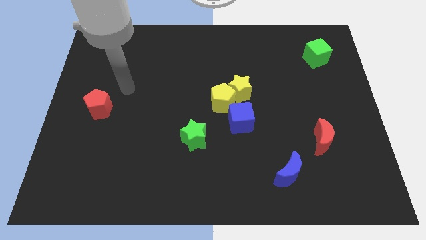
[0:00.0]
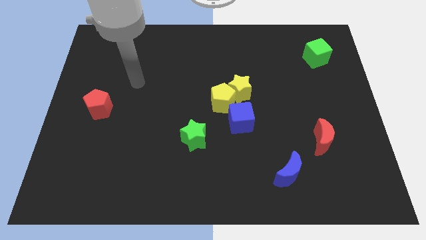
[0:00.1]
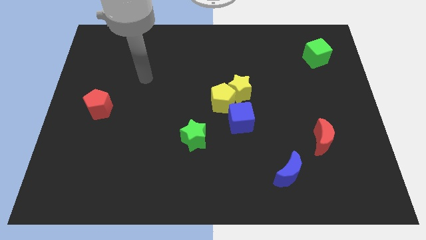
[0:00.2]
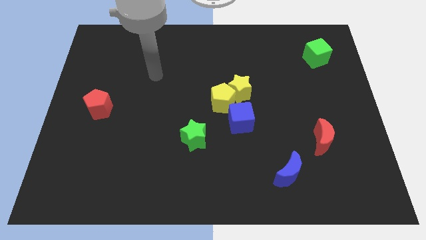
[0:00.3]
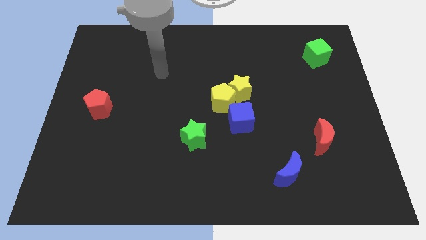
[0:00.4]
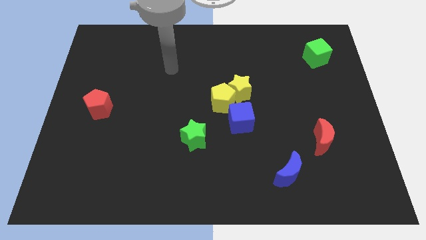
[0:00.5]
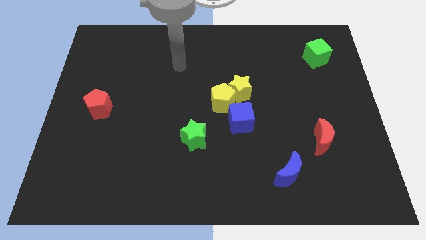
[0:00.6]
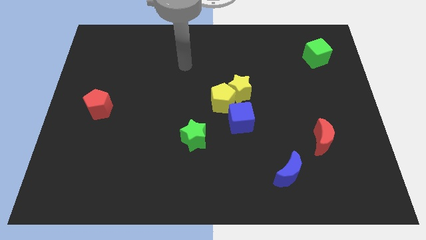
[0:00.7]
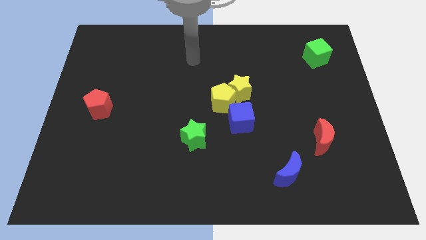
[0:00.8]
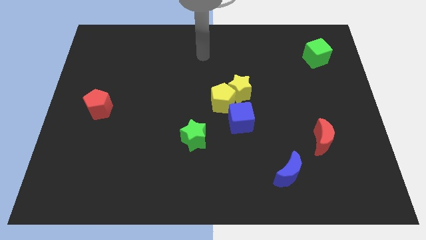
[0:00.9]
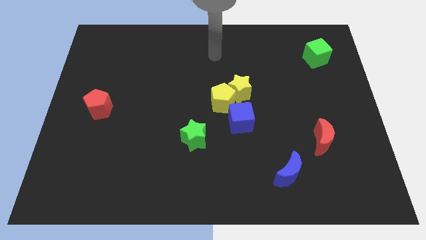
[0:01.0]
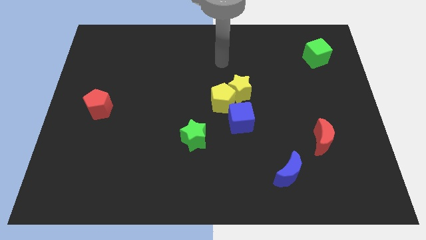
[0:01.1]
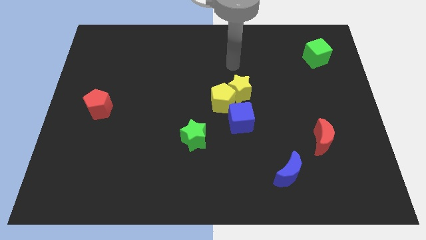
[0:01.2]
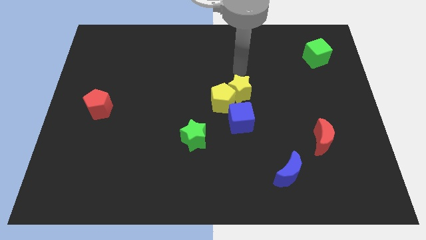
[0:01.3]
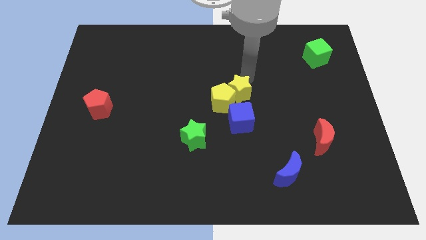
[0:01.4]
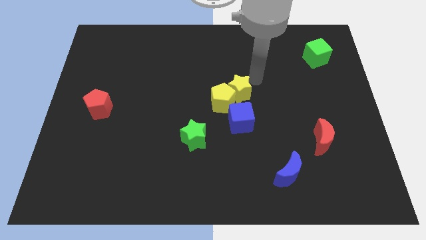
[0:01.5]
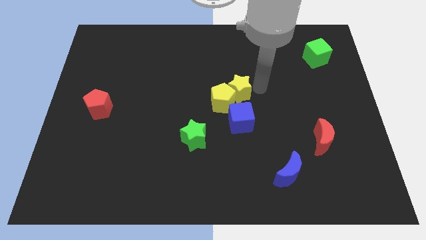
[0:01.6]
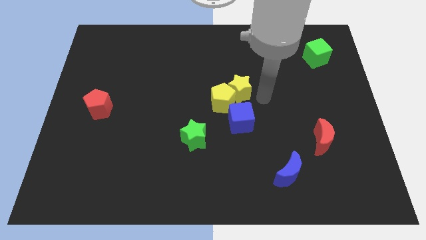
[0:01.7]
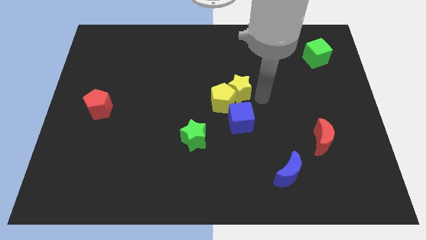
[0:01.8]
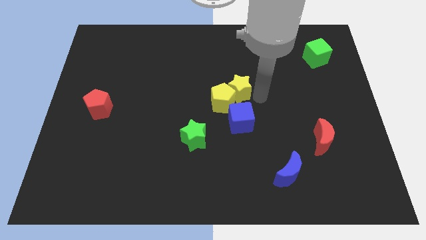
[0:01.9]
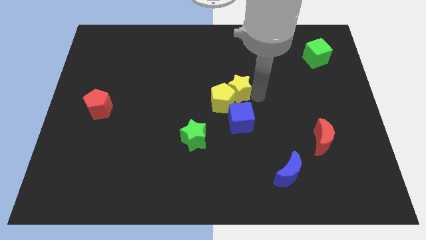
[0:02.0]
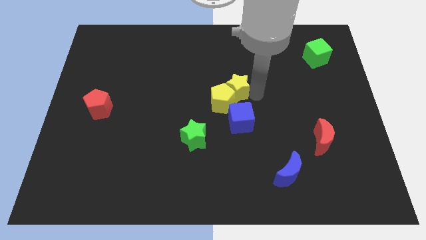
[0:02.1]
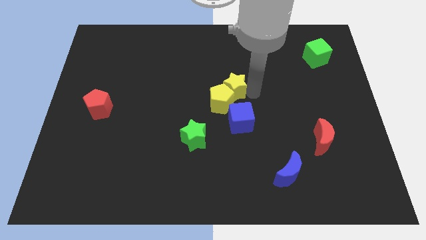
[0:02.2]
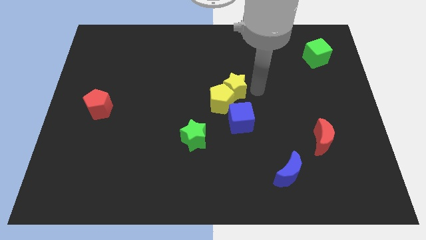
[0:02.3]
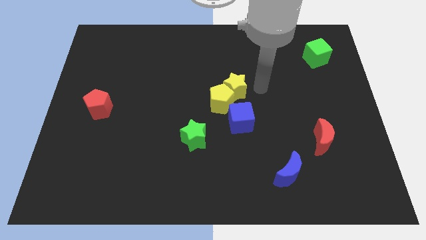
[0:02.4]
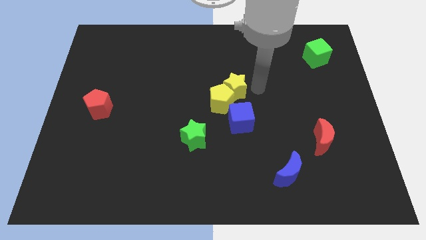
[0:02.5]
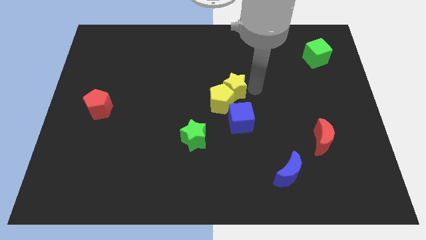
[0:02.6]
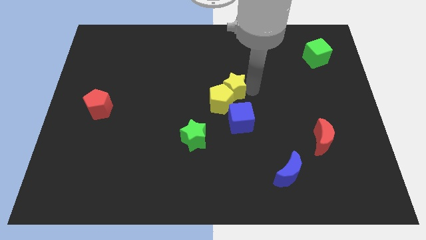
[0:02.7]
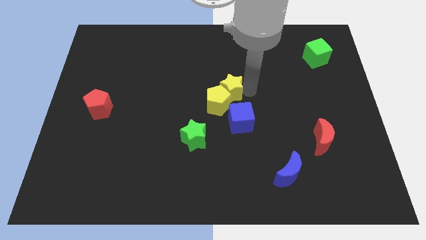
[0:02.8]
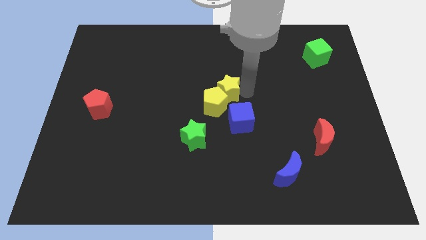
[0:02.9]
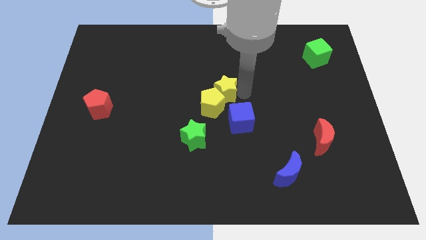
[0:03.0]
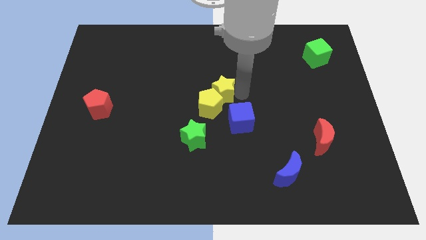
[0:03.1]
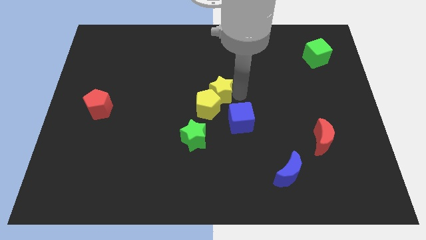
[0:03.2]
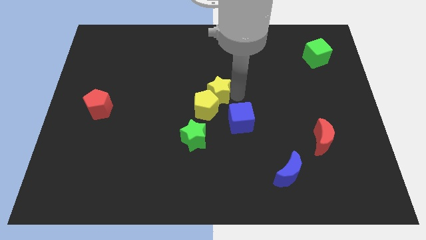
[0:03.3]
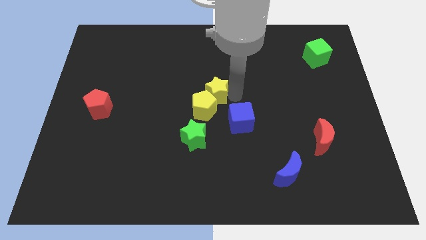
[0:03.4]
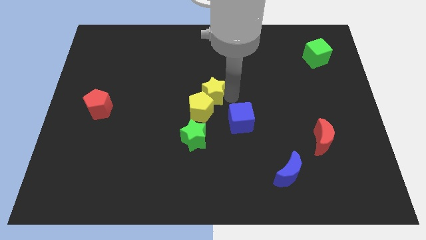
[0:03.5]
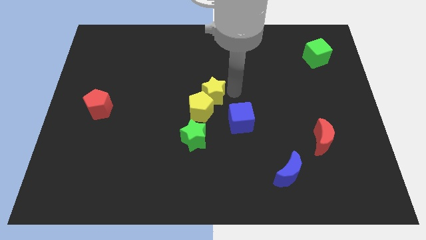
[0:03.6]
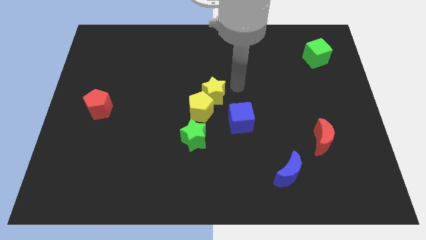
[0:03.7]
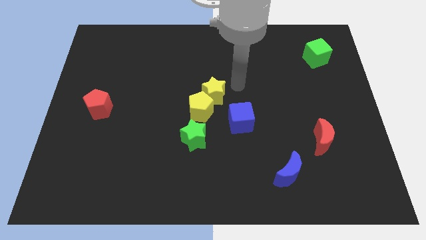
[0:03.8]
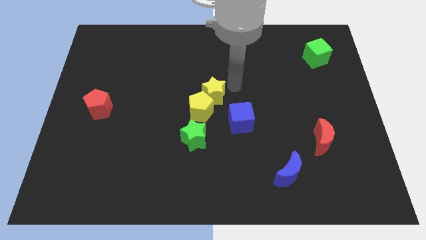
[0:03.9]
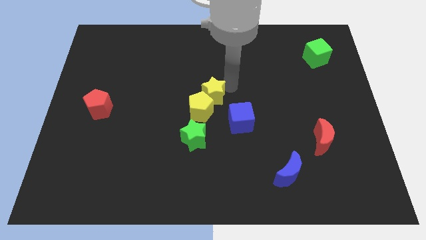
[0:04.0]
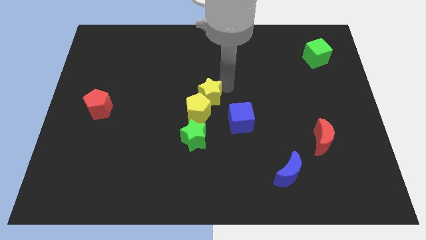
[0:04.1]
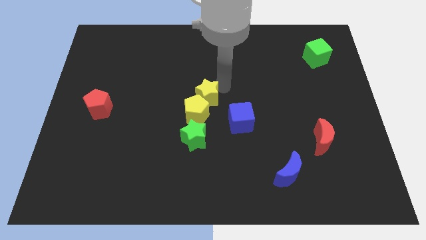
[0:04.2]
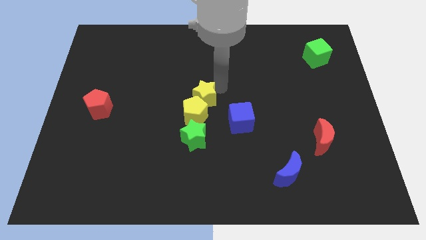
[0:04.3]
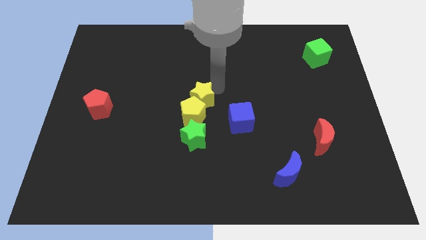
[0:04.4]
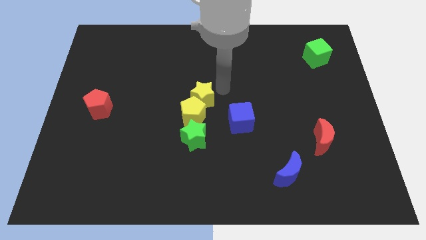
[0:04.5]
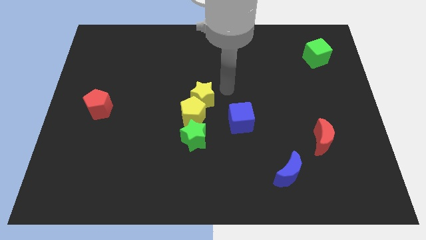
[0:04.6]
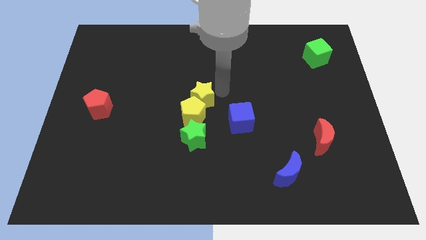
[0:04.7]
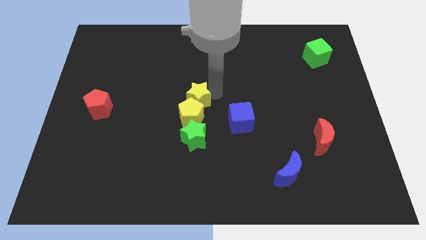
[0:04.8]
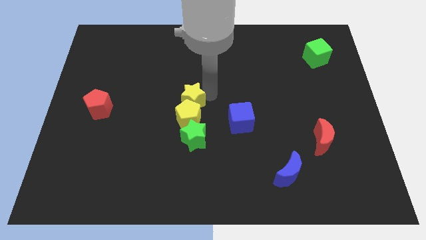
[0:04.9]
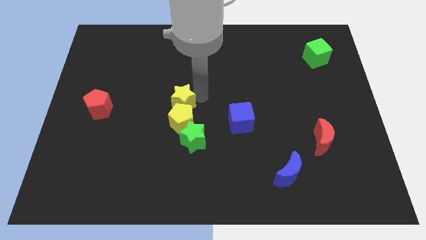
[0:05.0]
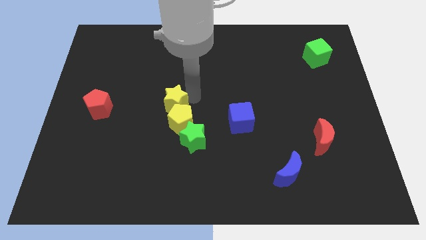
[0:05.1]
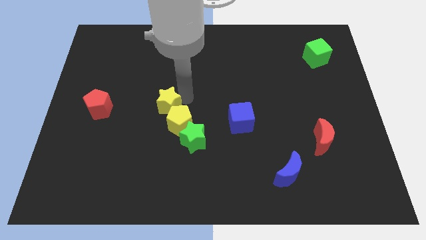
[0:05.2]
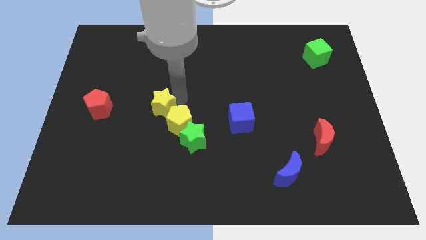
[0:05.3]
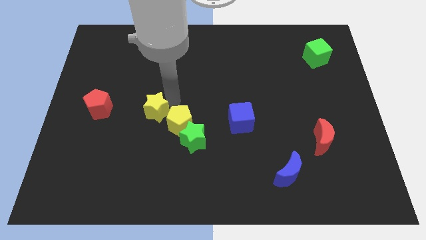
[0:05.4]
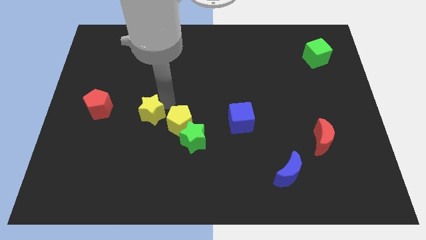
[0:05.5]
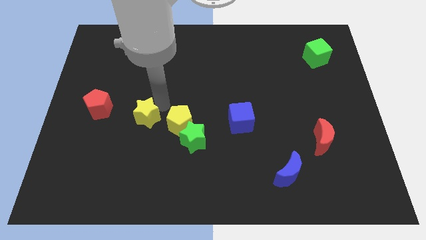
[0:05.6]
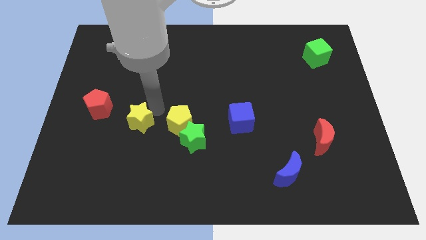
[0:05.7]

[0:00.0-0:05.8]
slide the yellow star diagonally down and to the right of the red pentagon

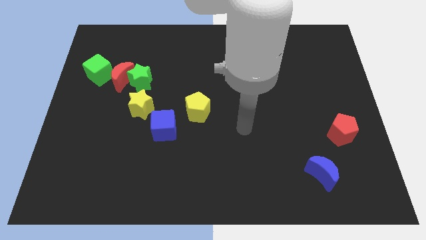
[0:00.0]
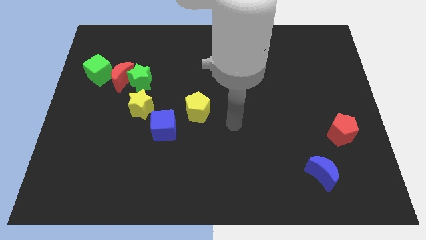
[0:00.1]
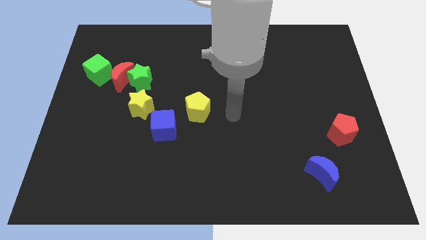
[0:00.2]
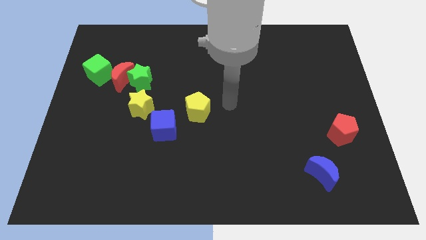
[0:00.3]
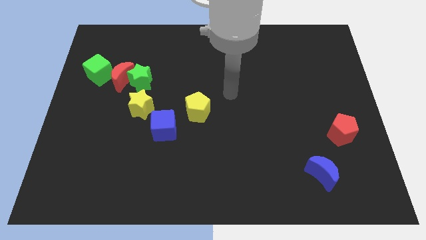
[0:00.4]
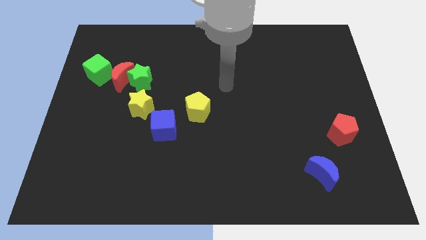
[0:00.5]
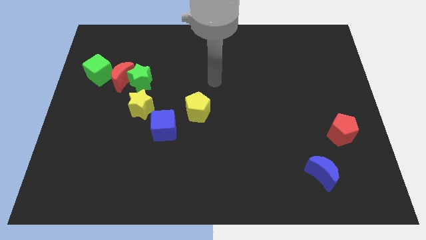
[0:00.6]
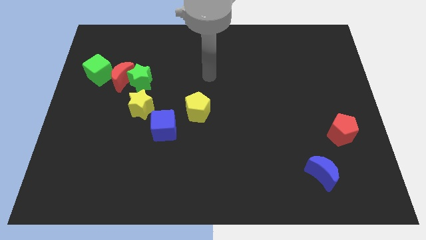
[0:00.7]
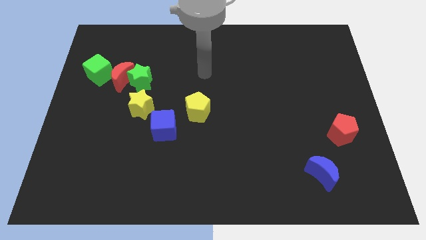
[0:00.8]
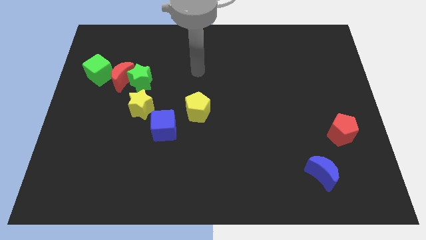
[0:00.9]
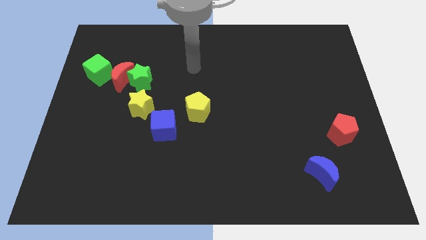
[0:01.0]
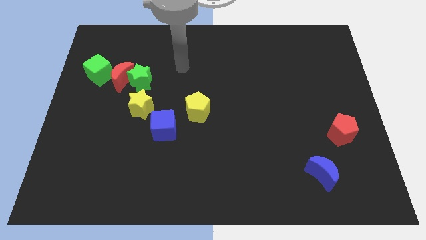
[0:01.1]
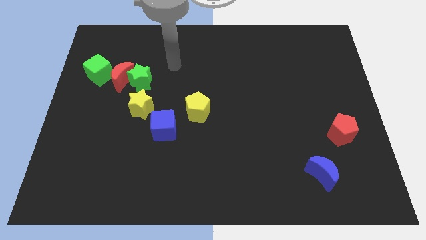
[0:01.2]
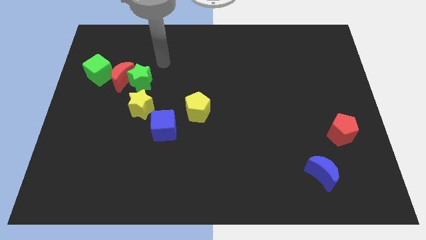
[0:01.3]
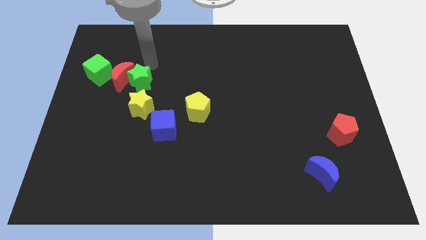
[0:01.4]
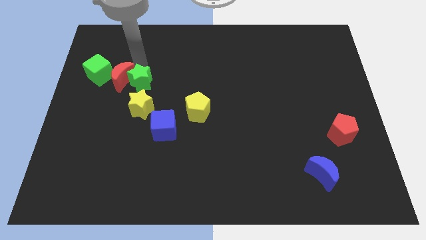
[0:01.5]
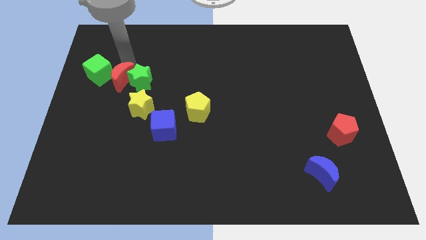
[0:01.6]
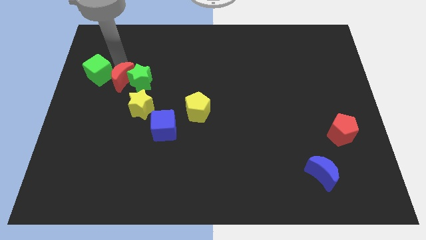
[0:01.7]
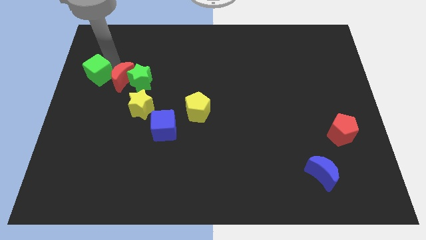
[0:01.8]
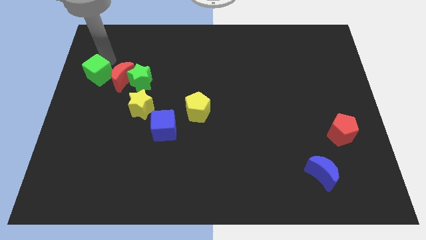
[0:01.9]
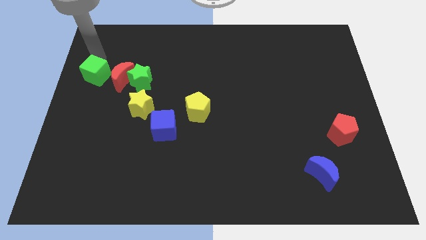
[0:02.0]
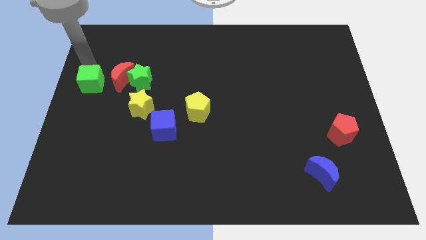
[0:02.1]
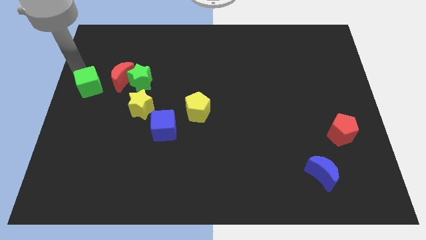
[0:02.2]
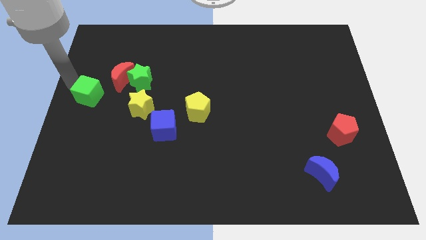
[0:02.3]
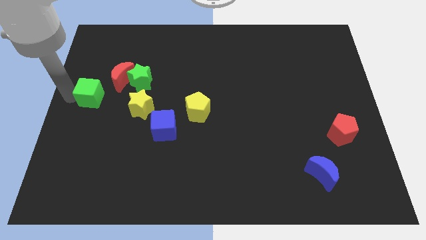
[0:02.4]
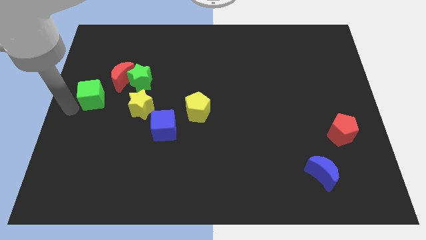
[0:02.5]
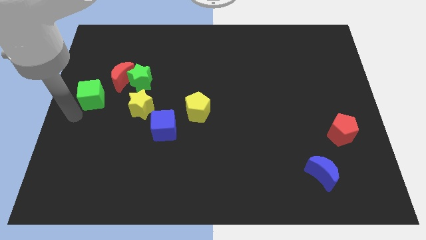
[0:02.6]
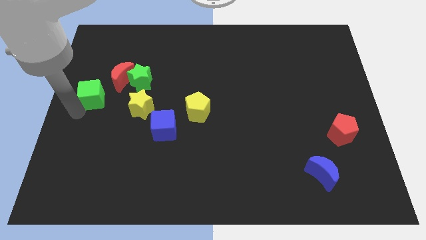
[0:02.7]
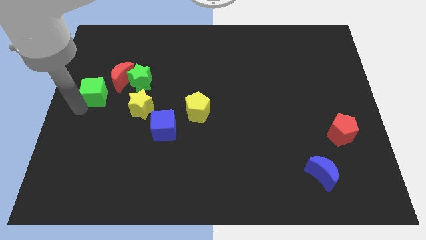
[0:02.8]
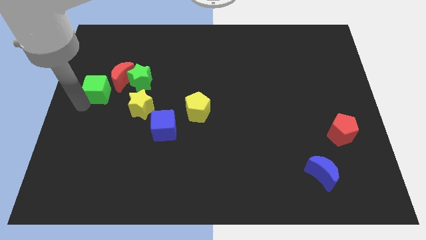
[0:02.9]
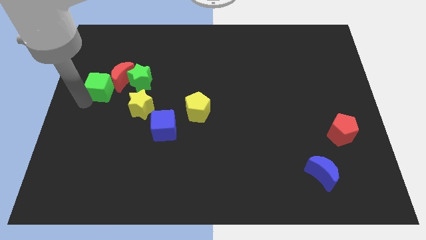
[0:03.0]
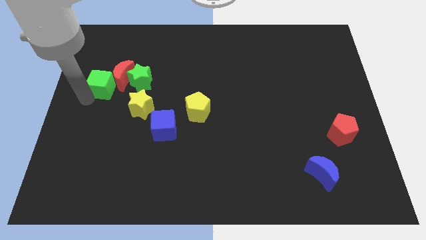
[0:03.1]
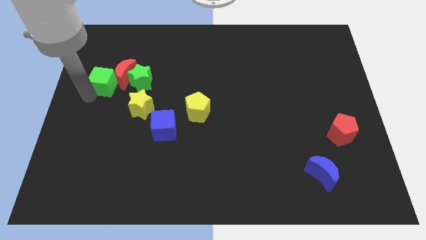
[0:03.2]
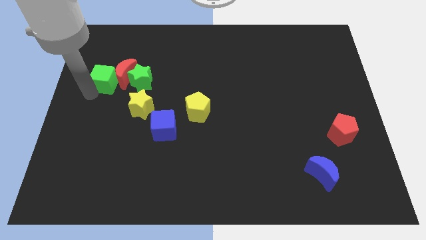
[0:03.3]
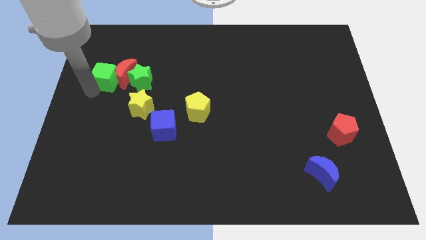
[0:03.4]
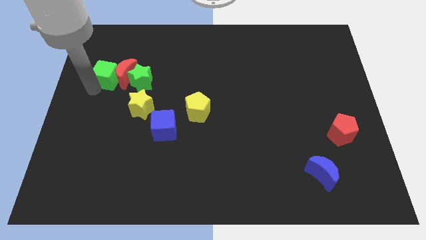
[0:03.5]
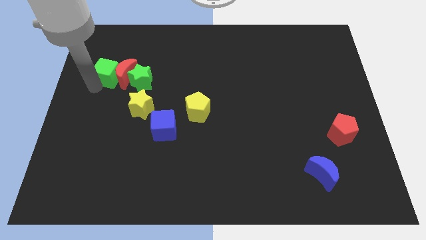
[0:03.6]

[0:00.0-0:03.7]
move the green cube to the top left of the green star
